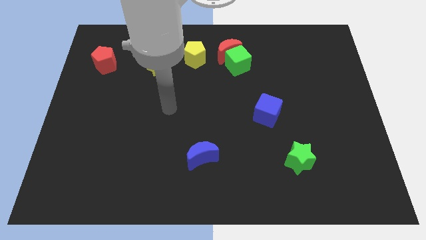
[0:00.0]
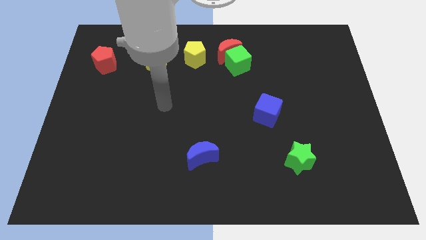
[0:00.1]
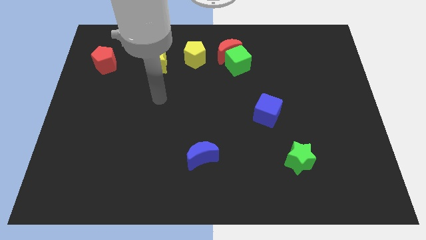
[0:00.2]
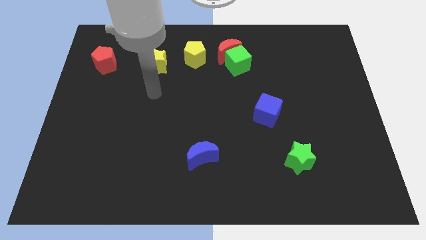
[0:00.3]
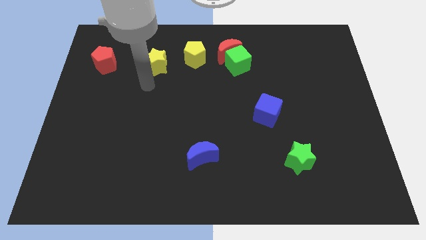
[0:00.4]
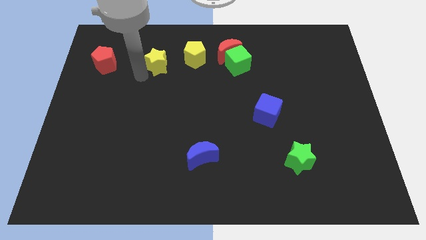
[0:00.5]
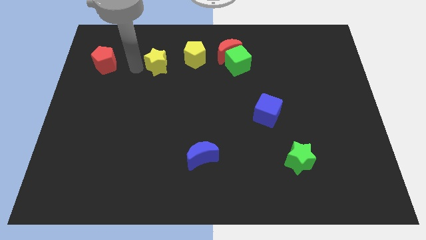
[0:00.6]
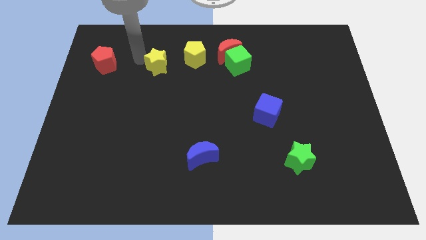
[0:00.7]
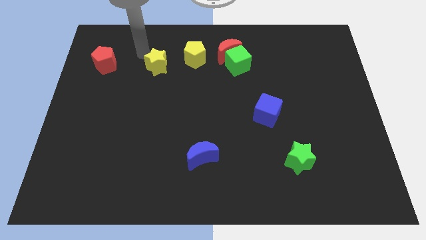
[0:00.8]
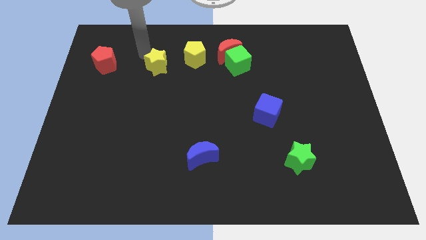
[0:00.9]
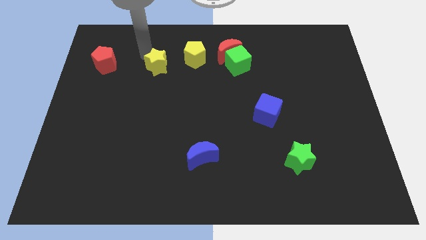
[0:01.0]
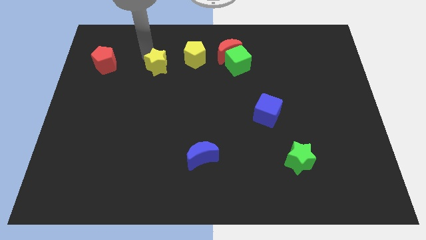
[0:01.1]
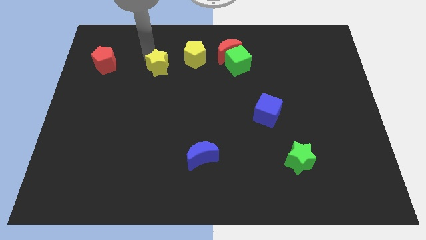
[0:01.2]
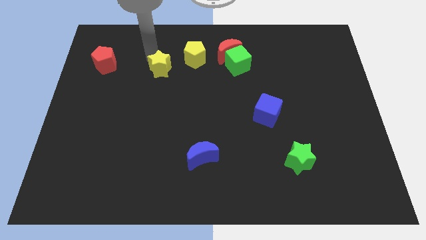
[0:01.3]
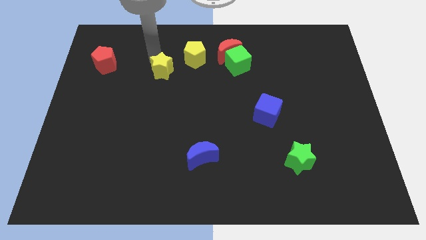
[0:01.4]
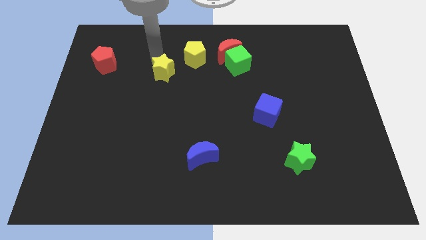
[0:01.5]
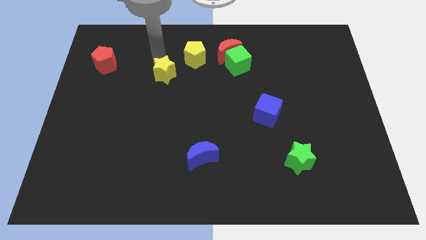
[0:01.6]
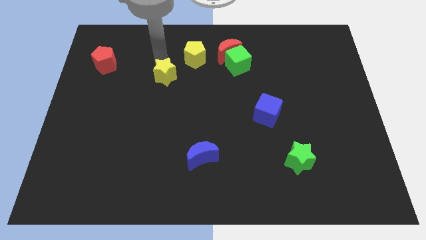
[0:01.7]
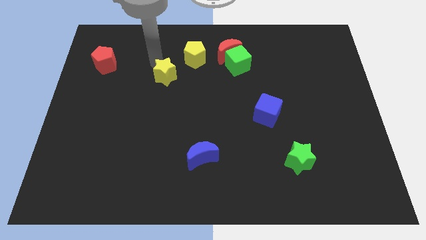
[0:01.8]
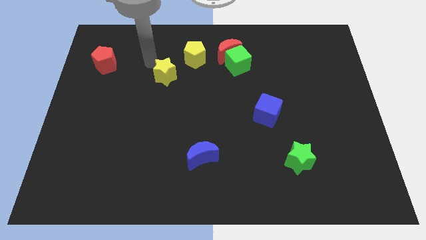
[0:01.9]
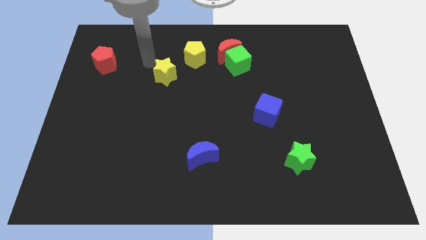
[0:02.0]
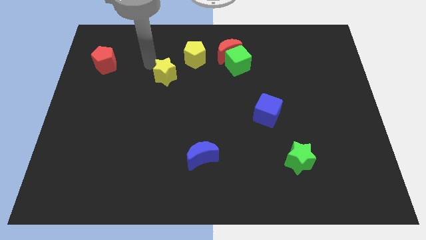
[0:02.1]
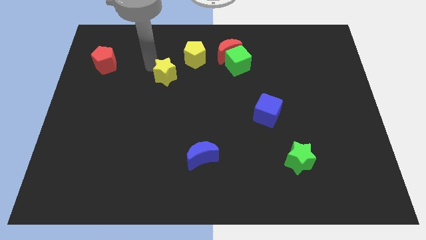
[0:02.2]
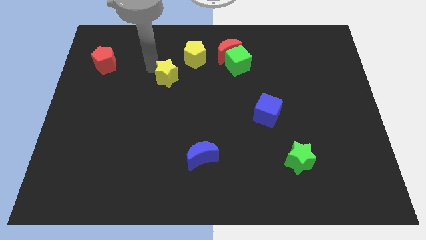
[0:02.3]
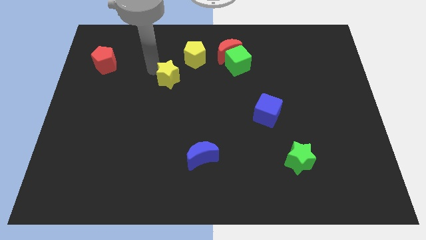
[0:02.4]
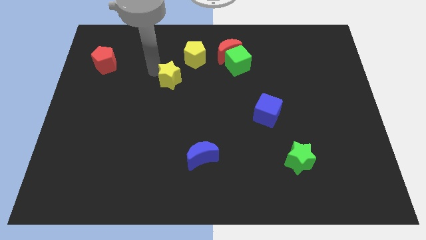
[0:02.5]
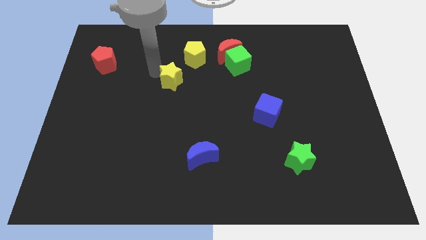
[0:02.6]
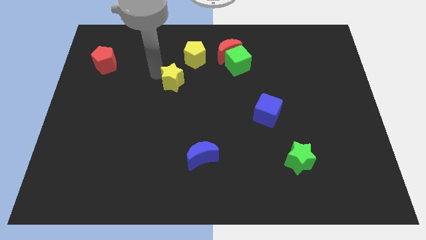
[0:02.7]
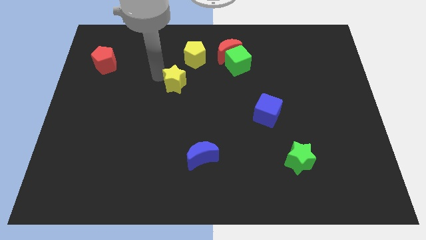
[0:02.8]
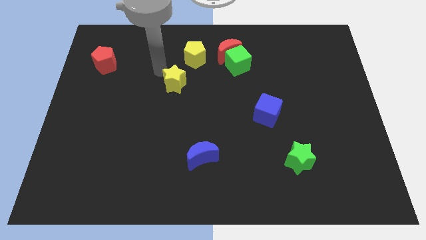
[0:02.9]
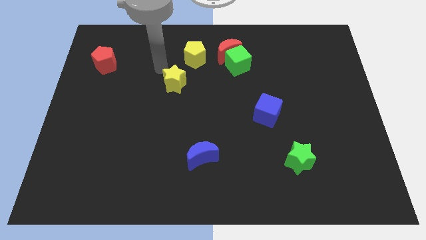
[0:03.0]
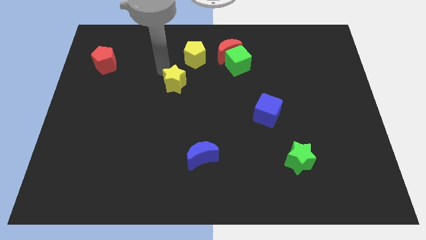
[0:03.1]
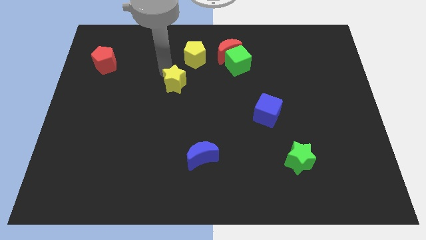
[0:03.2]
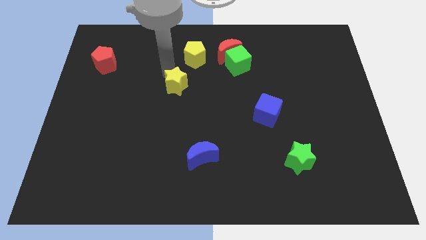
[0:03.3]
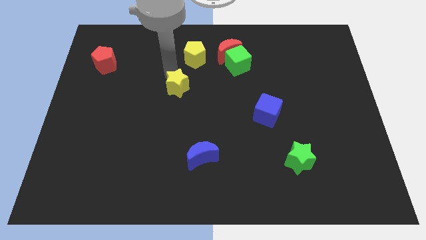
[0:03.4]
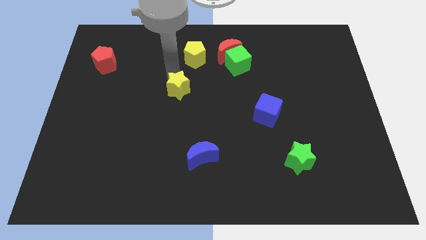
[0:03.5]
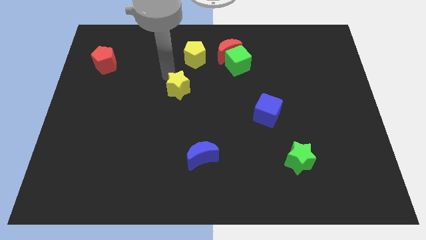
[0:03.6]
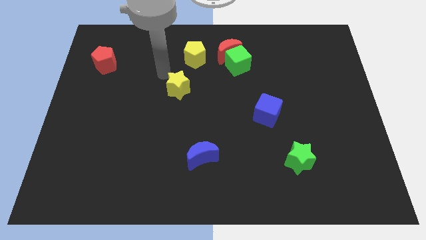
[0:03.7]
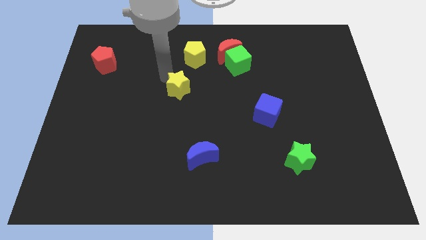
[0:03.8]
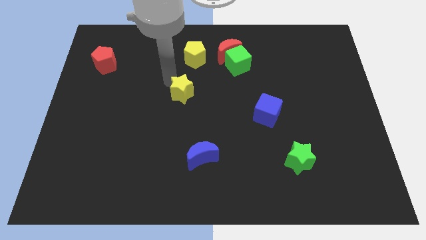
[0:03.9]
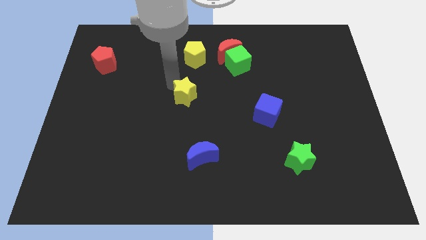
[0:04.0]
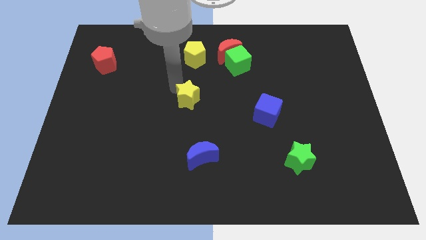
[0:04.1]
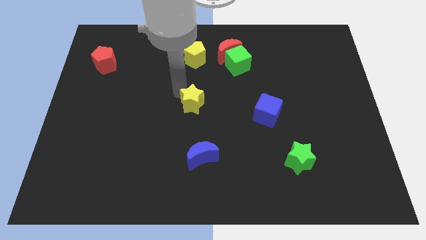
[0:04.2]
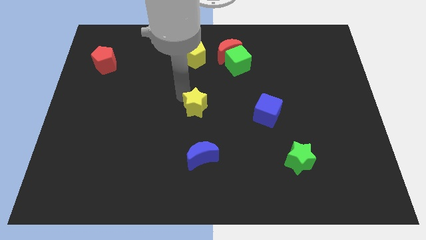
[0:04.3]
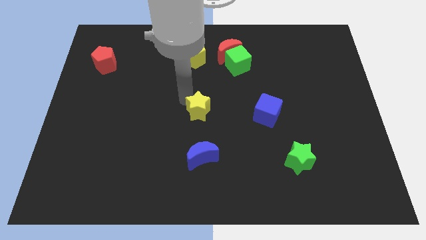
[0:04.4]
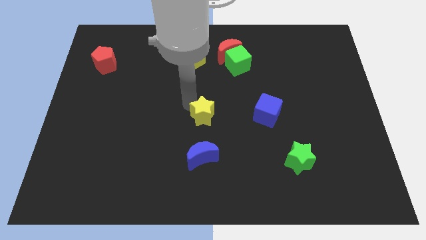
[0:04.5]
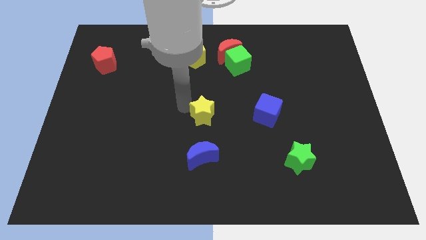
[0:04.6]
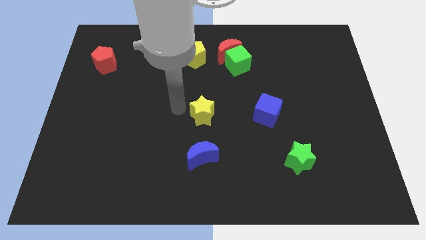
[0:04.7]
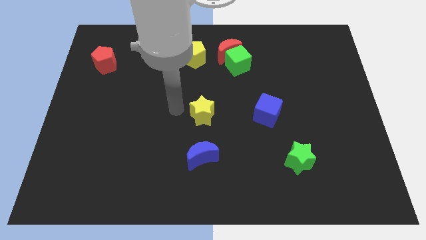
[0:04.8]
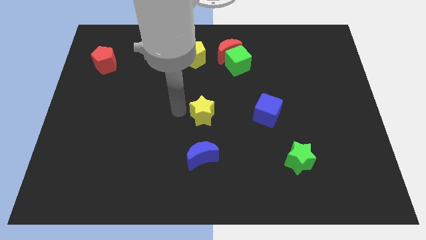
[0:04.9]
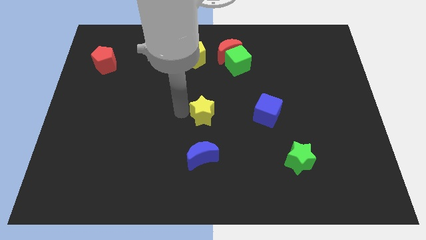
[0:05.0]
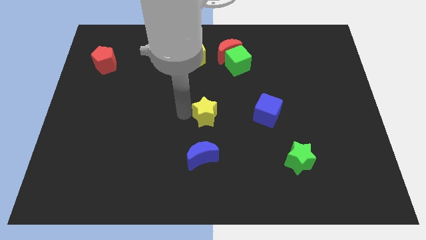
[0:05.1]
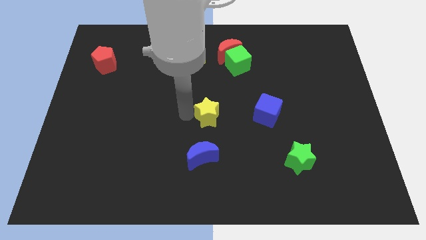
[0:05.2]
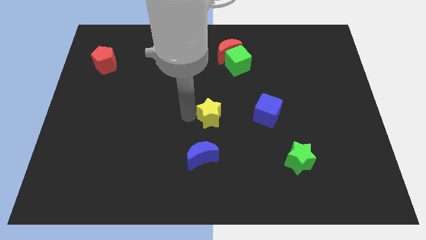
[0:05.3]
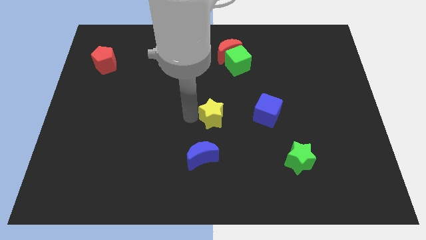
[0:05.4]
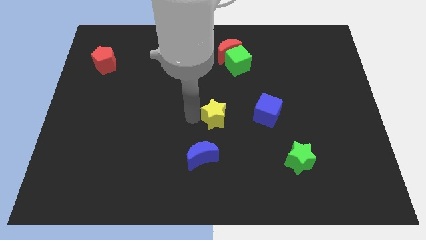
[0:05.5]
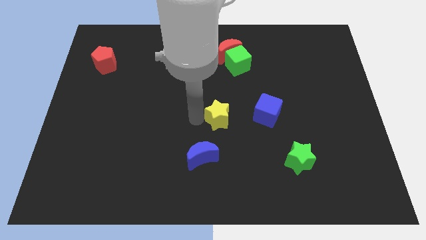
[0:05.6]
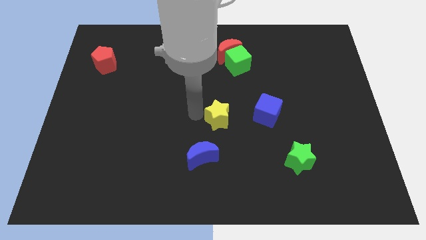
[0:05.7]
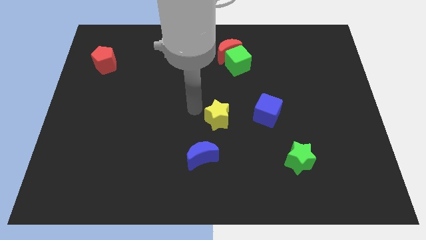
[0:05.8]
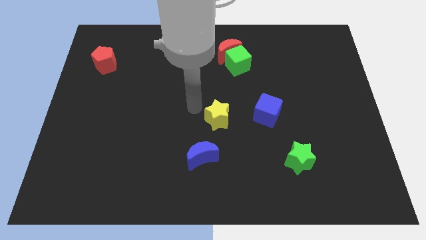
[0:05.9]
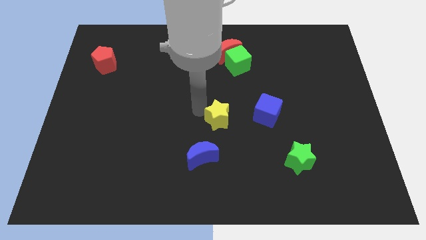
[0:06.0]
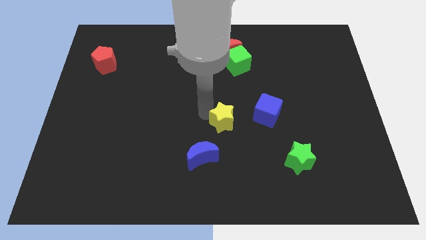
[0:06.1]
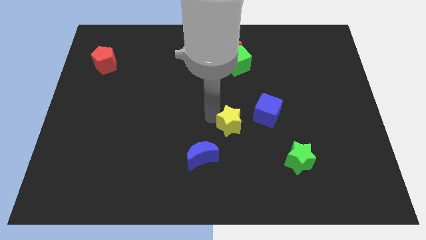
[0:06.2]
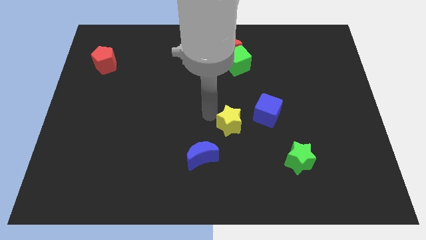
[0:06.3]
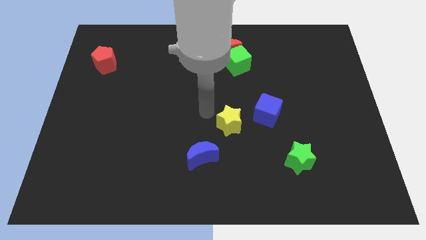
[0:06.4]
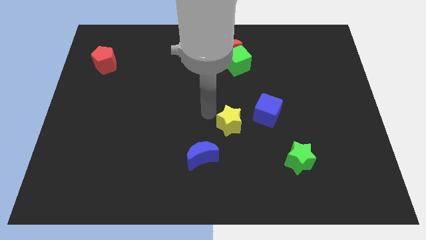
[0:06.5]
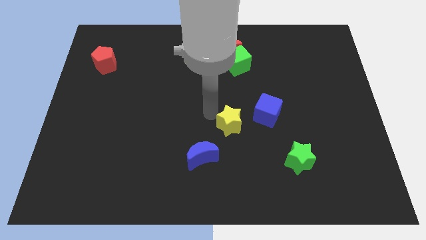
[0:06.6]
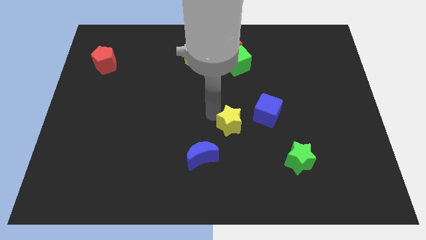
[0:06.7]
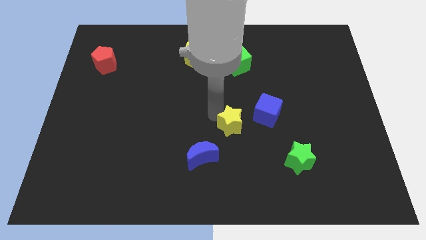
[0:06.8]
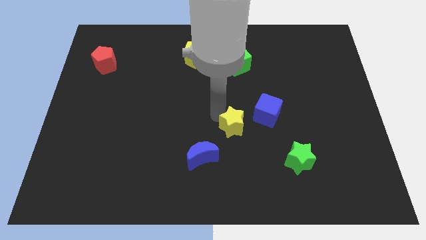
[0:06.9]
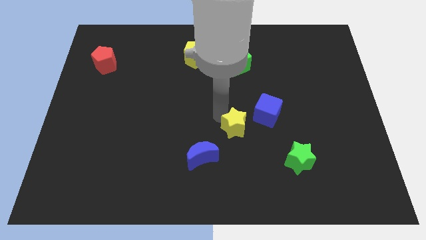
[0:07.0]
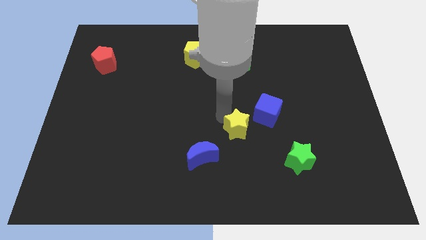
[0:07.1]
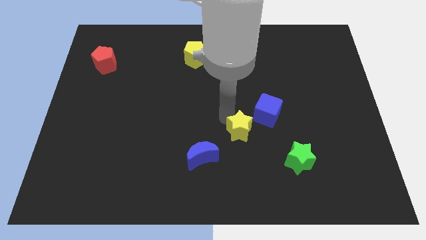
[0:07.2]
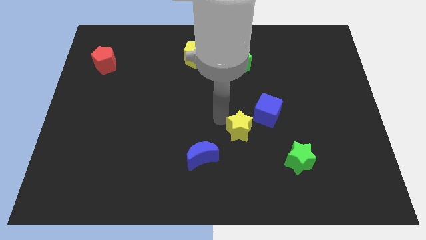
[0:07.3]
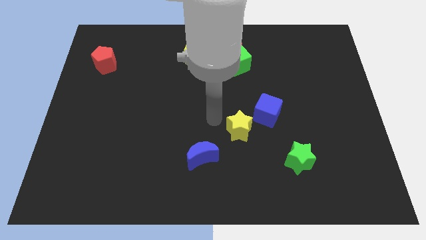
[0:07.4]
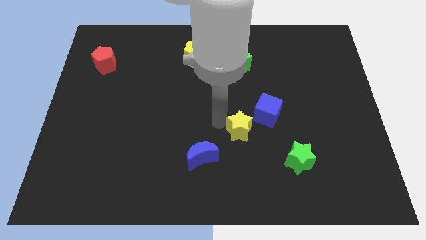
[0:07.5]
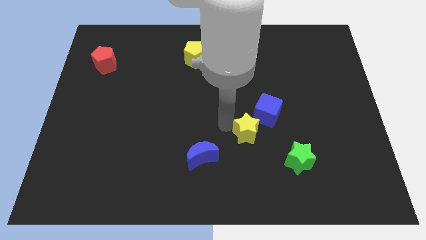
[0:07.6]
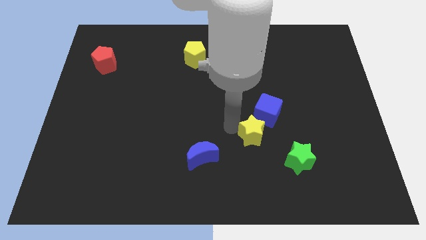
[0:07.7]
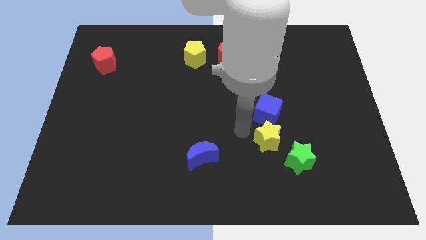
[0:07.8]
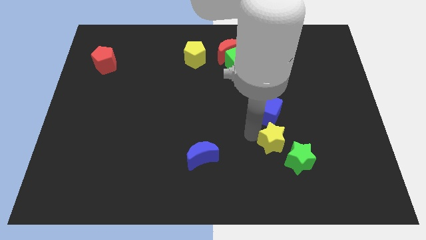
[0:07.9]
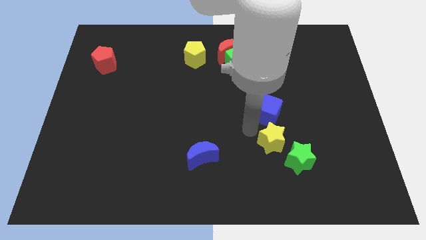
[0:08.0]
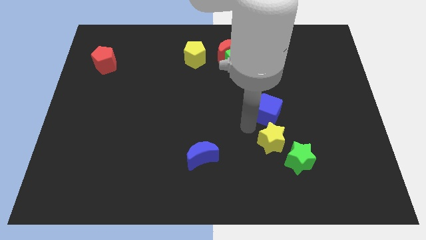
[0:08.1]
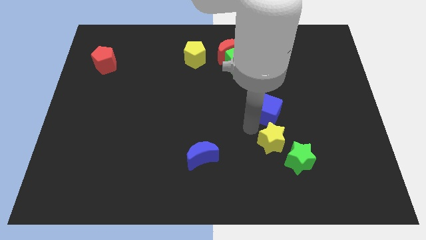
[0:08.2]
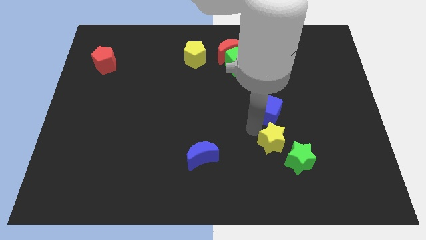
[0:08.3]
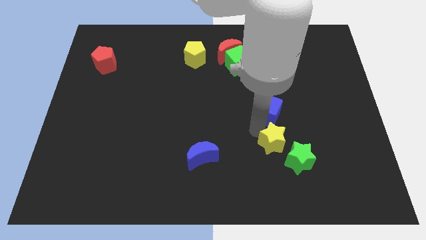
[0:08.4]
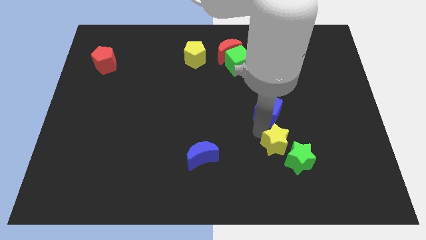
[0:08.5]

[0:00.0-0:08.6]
put the yellow star towards the green star
